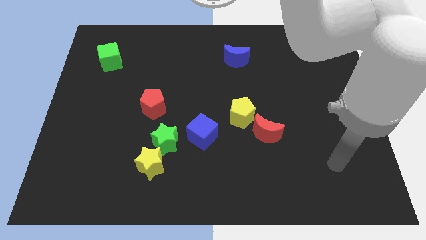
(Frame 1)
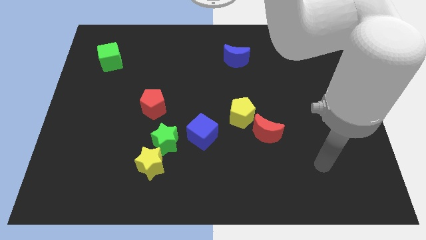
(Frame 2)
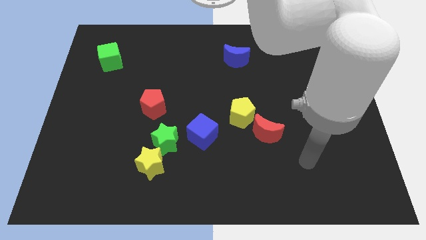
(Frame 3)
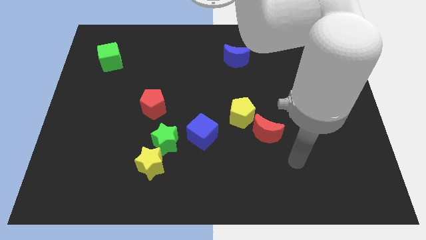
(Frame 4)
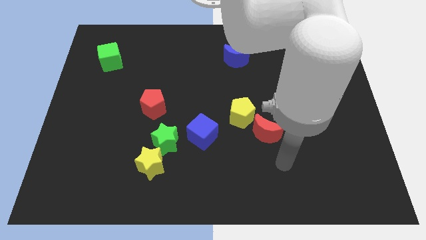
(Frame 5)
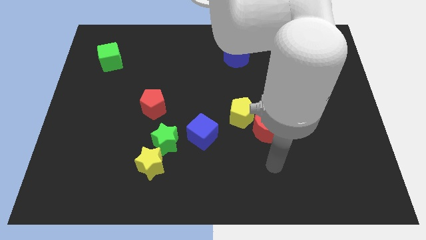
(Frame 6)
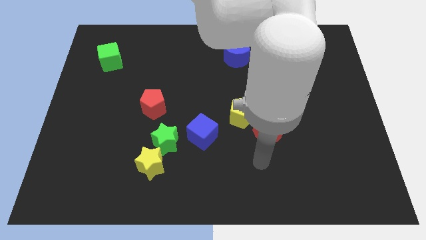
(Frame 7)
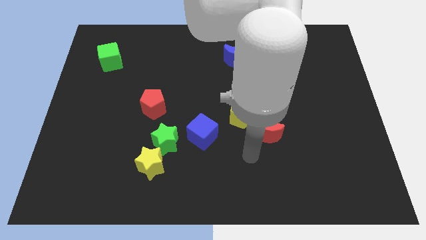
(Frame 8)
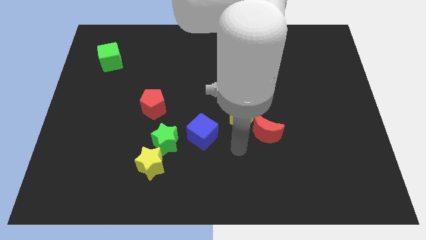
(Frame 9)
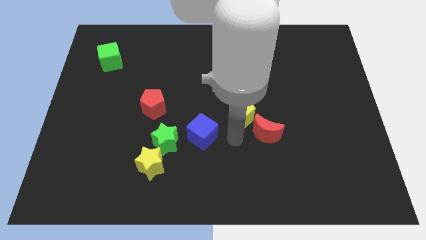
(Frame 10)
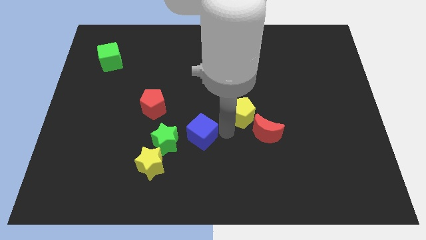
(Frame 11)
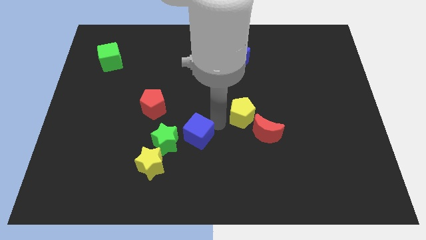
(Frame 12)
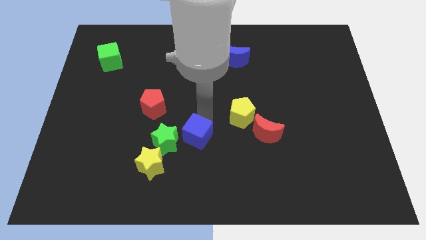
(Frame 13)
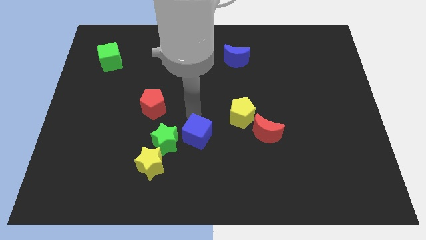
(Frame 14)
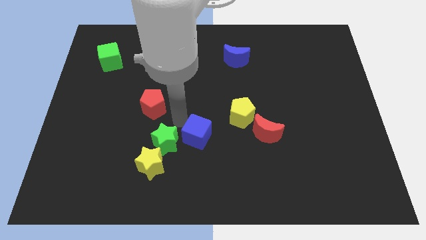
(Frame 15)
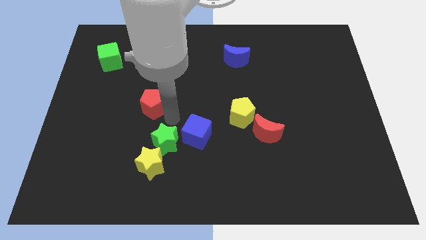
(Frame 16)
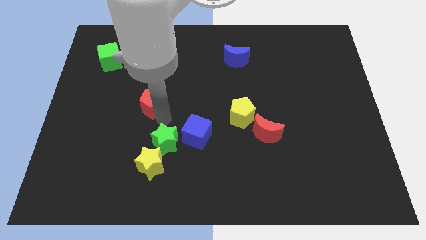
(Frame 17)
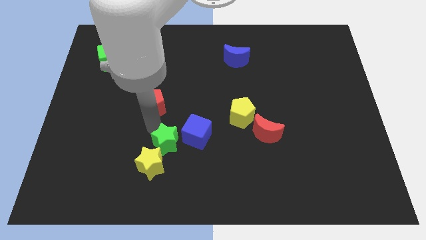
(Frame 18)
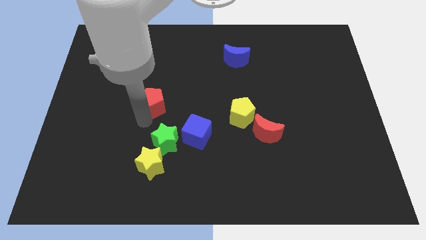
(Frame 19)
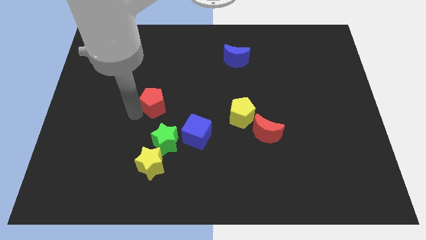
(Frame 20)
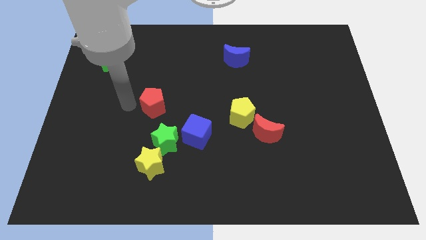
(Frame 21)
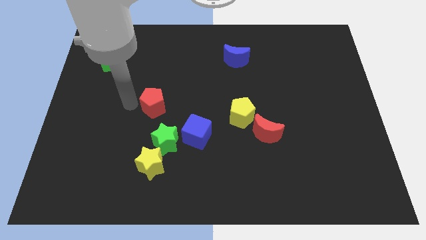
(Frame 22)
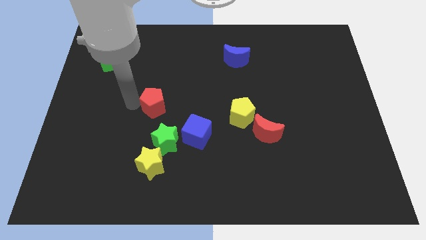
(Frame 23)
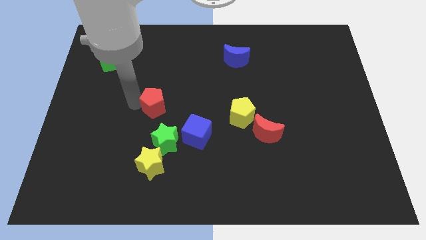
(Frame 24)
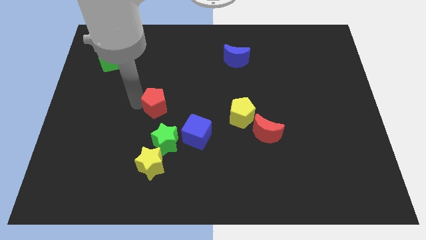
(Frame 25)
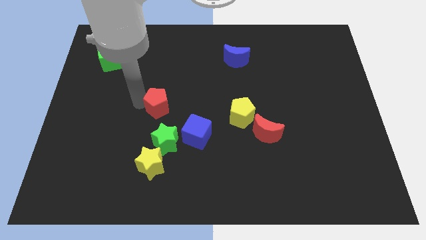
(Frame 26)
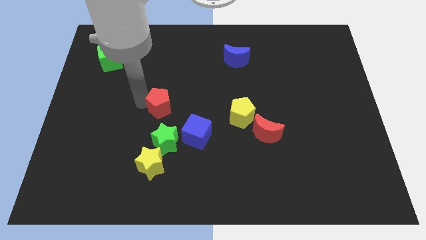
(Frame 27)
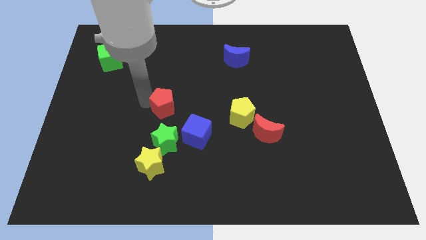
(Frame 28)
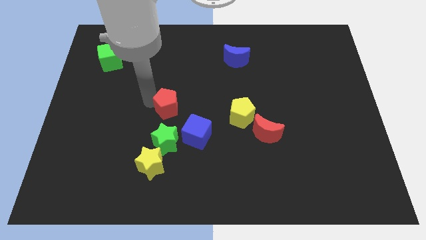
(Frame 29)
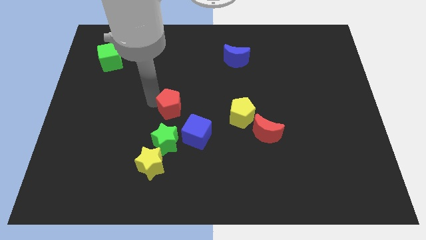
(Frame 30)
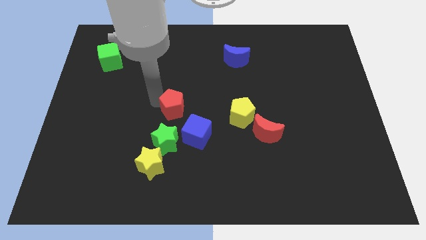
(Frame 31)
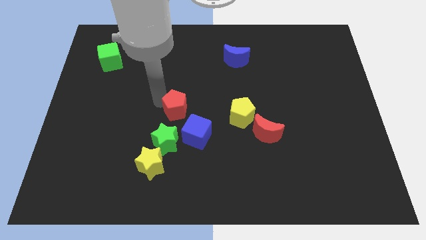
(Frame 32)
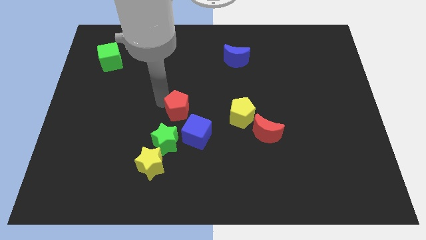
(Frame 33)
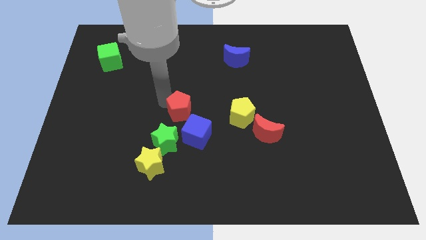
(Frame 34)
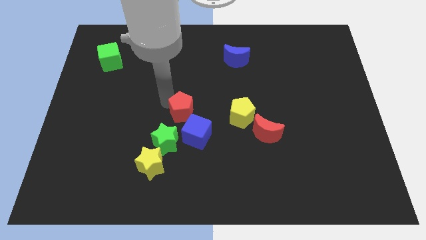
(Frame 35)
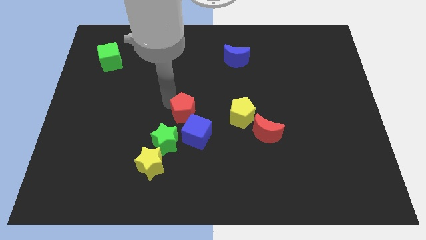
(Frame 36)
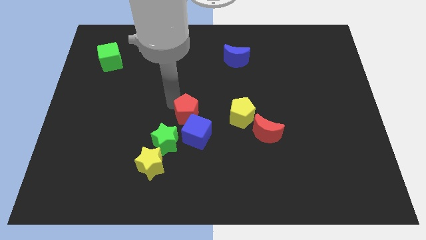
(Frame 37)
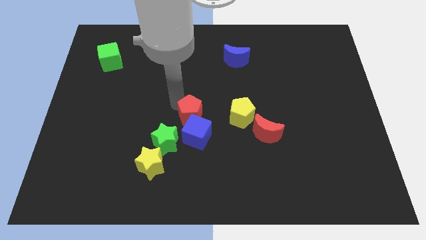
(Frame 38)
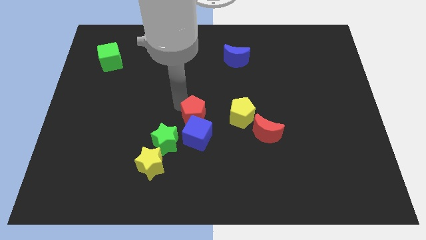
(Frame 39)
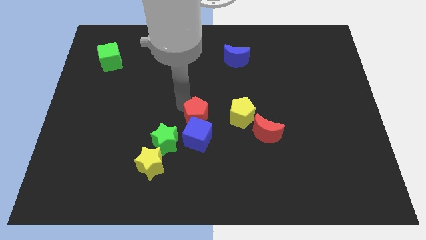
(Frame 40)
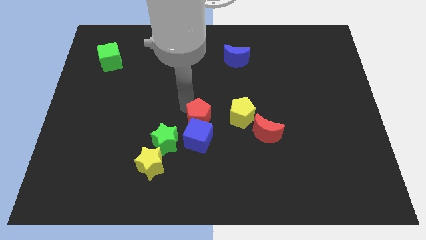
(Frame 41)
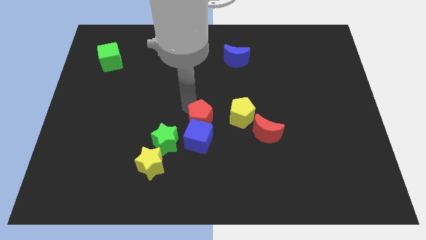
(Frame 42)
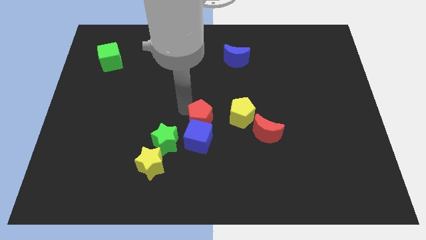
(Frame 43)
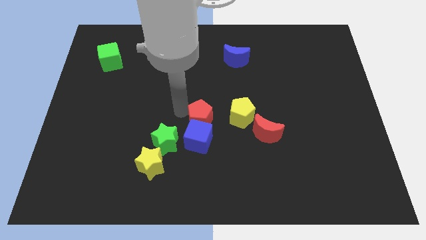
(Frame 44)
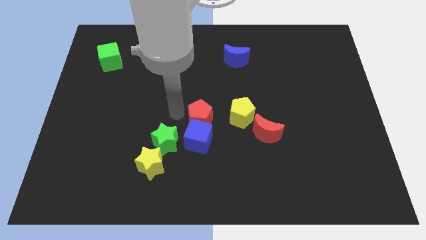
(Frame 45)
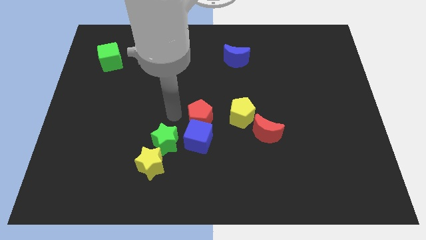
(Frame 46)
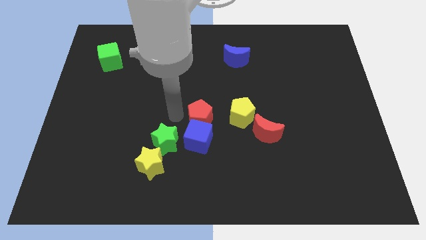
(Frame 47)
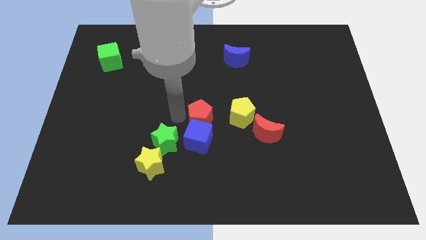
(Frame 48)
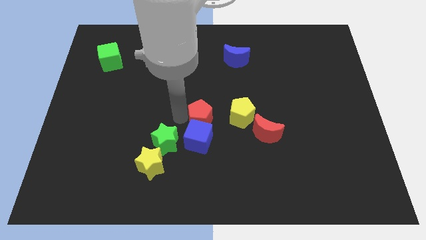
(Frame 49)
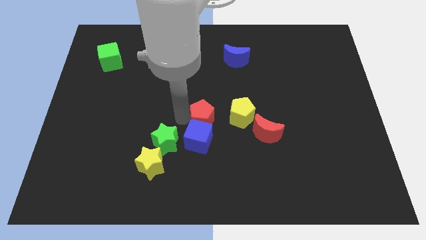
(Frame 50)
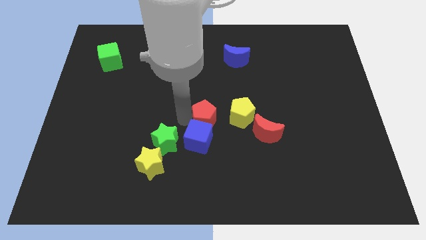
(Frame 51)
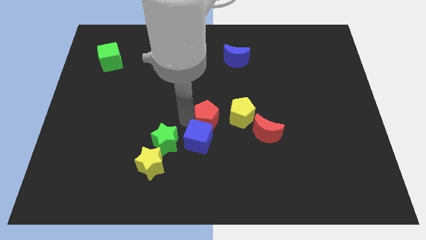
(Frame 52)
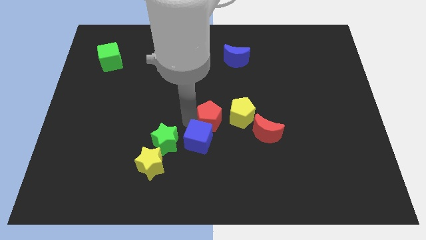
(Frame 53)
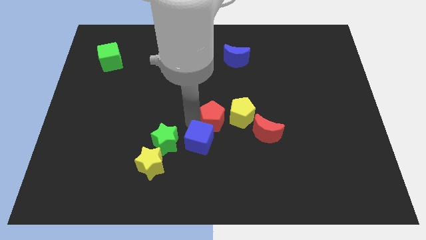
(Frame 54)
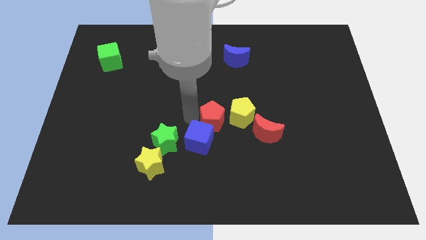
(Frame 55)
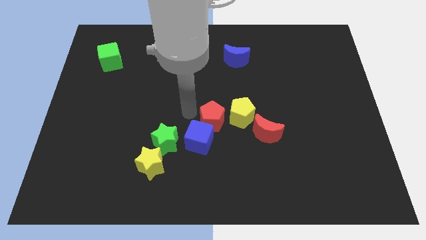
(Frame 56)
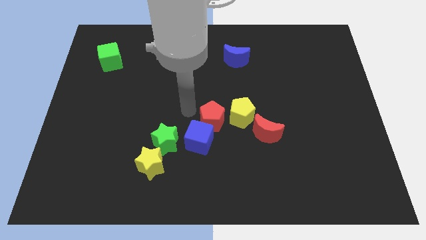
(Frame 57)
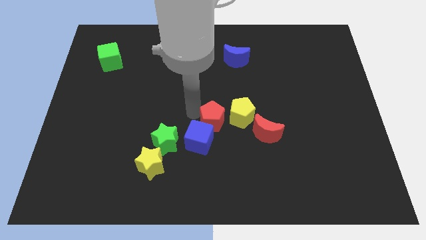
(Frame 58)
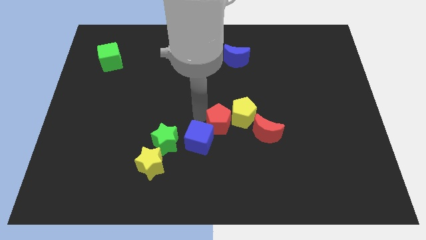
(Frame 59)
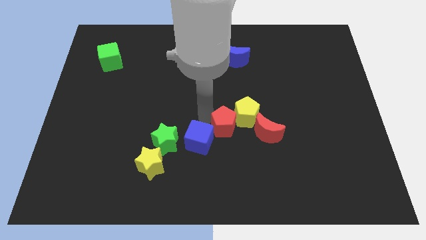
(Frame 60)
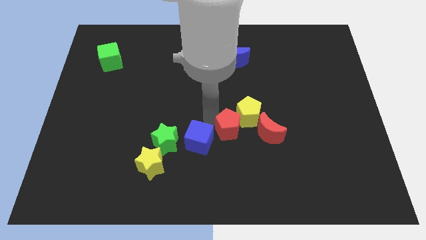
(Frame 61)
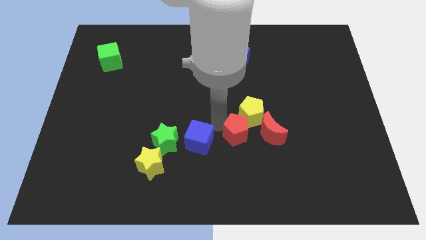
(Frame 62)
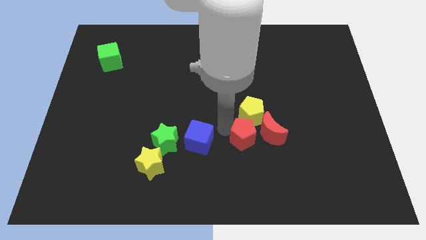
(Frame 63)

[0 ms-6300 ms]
push the red pentagon next to the red moon

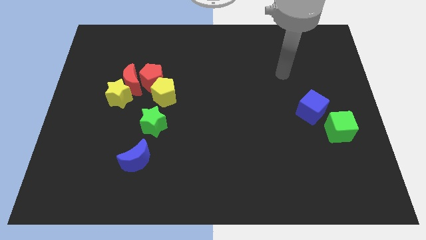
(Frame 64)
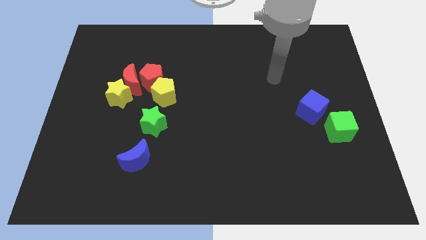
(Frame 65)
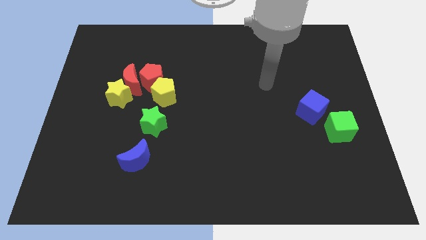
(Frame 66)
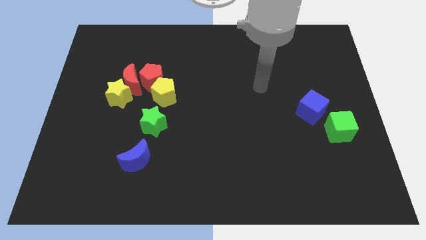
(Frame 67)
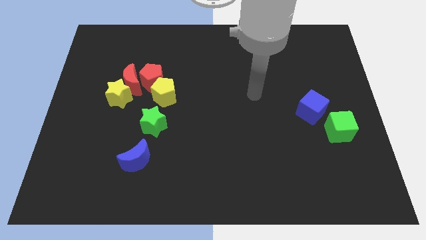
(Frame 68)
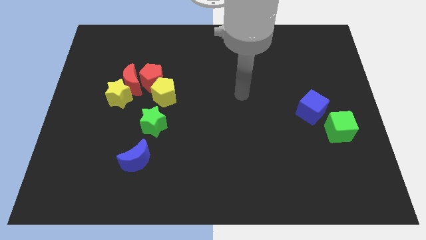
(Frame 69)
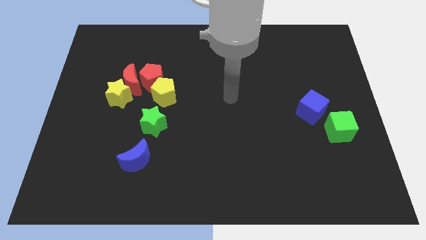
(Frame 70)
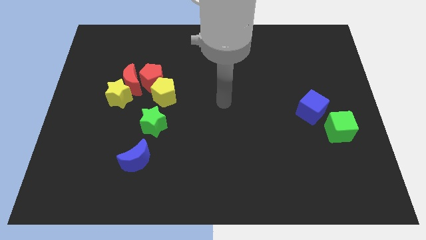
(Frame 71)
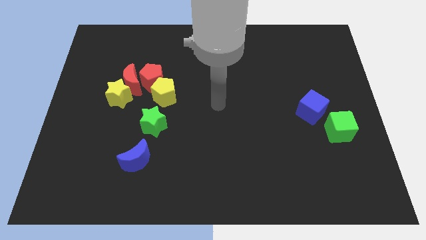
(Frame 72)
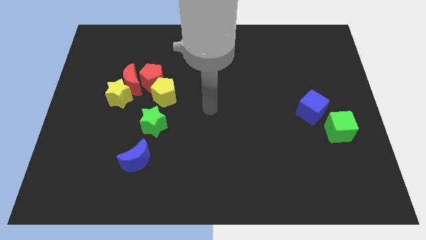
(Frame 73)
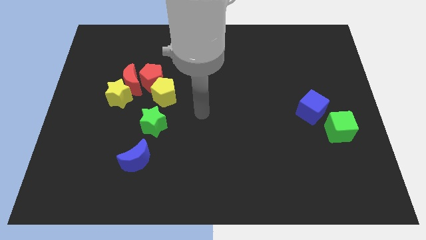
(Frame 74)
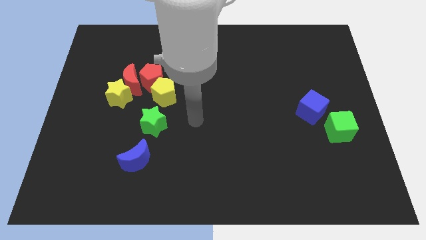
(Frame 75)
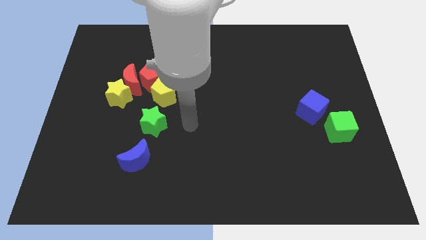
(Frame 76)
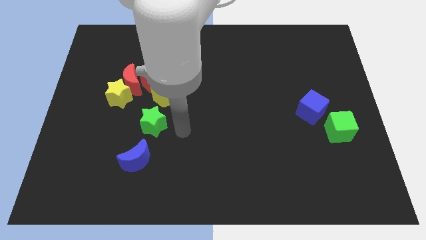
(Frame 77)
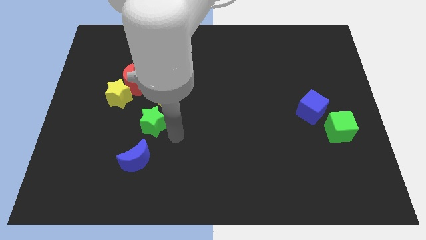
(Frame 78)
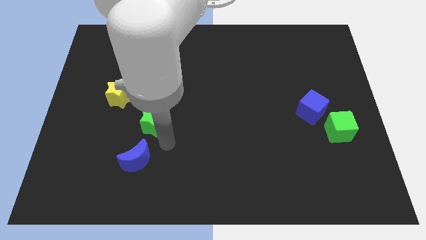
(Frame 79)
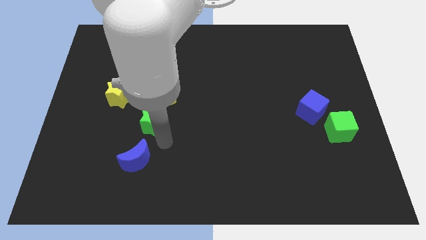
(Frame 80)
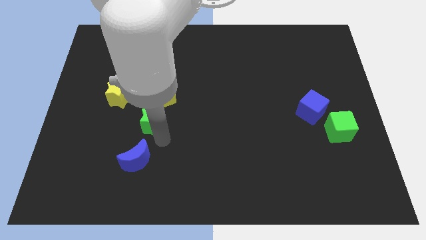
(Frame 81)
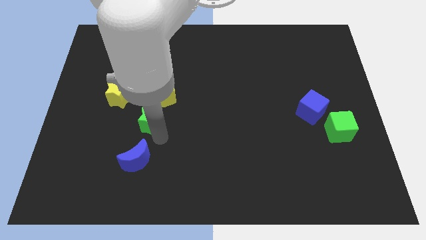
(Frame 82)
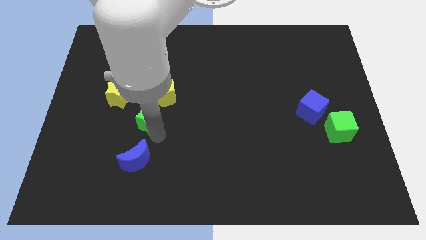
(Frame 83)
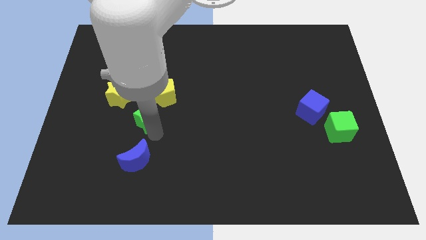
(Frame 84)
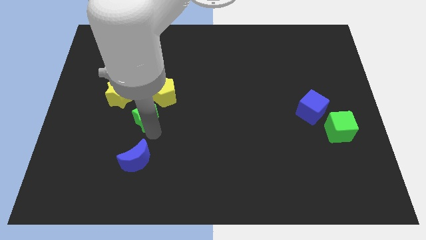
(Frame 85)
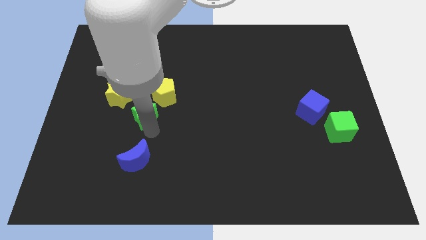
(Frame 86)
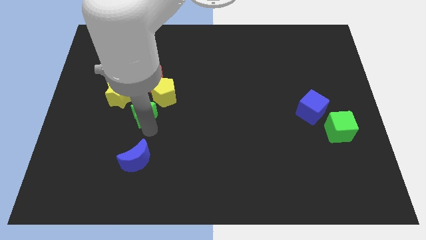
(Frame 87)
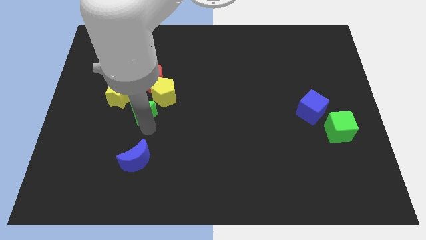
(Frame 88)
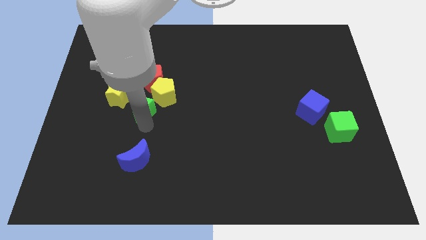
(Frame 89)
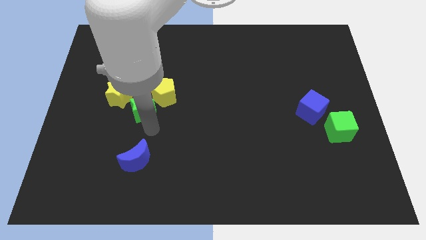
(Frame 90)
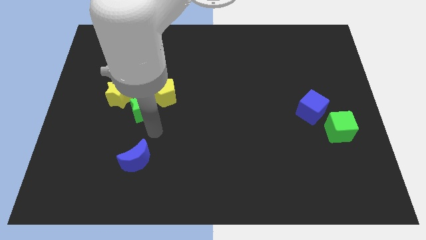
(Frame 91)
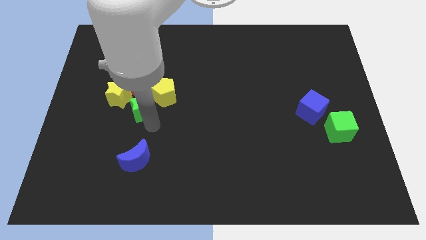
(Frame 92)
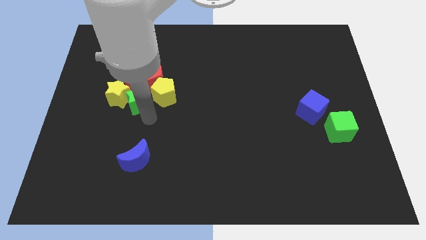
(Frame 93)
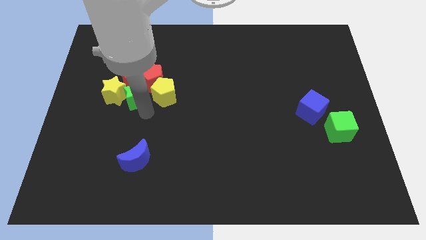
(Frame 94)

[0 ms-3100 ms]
push the green star towards the red moon
